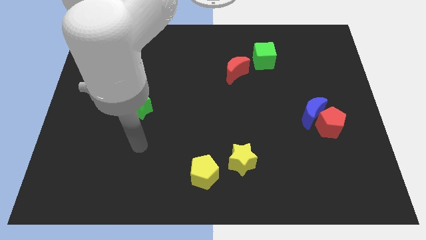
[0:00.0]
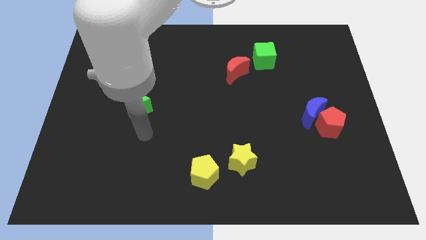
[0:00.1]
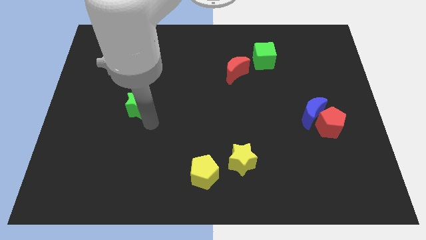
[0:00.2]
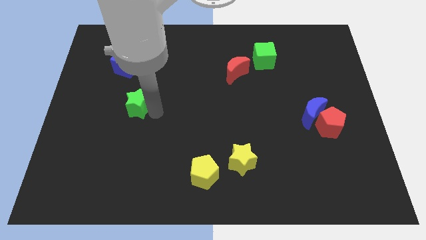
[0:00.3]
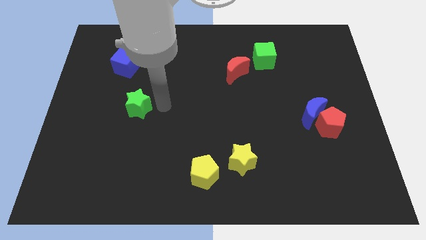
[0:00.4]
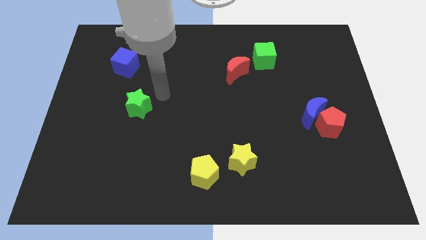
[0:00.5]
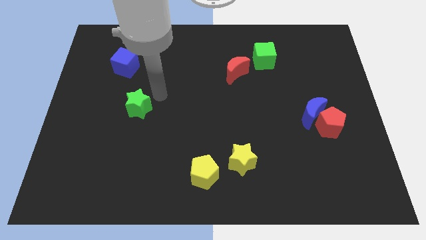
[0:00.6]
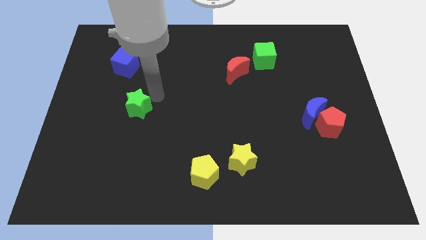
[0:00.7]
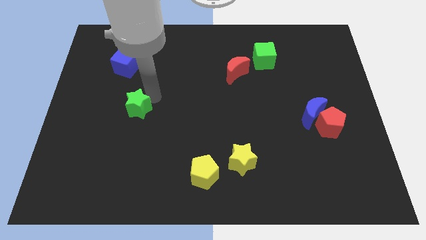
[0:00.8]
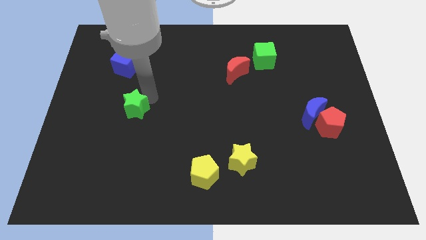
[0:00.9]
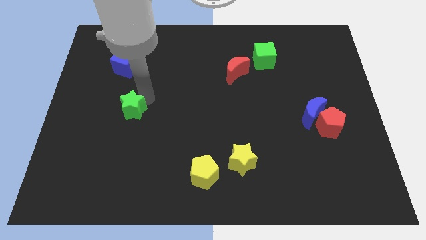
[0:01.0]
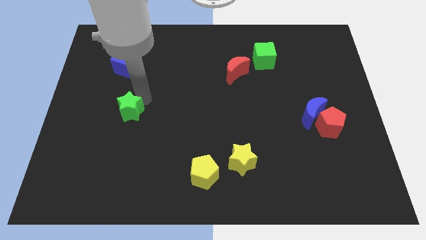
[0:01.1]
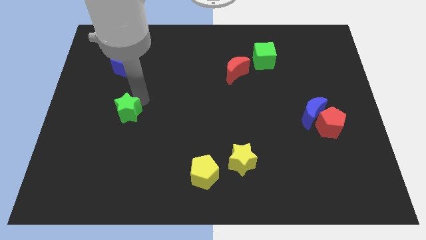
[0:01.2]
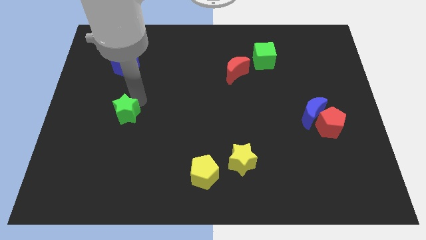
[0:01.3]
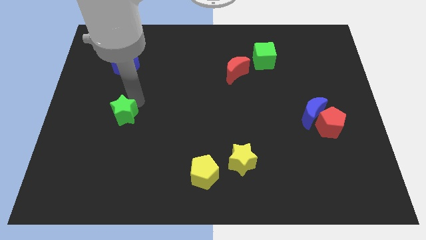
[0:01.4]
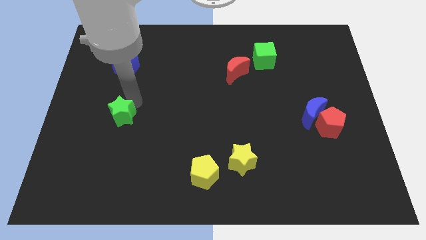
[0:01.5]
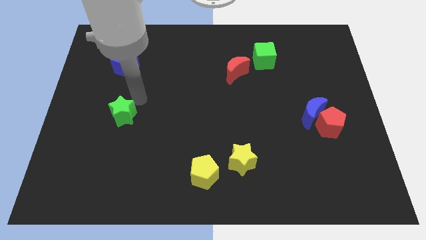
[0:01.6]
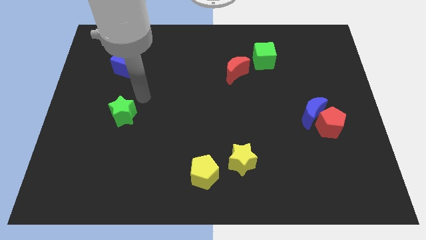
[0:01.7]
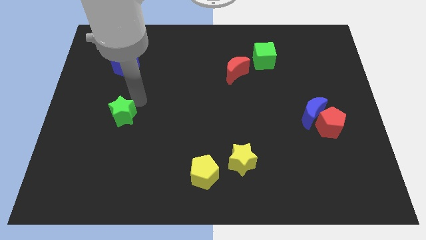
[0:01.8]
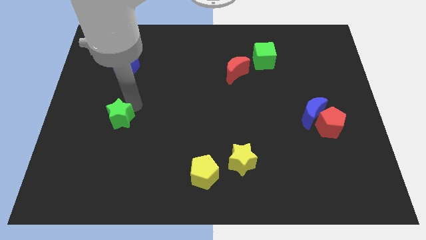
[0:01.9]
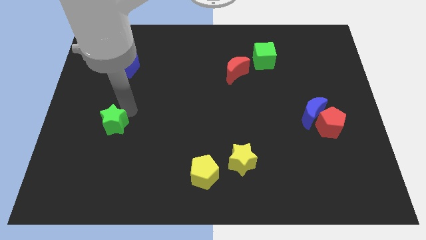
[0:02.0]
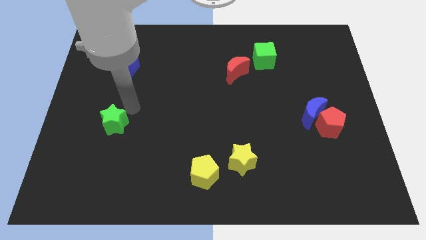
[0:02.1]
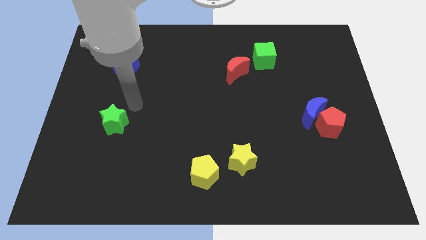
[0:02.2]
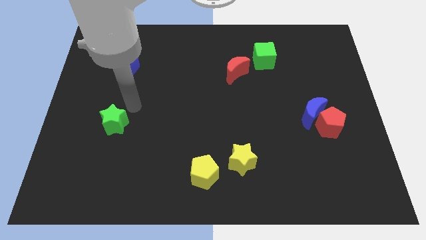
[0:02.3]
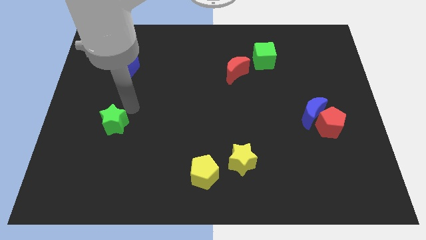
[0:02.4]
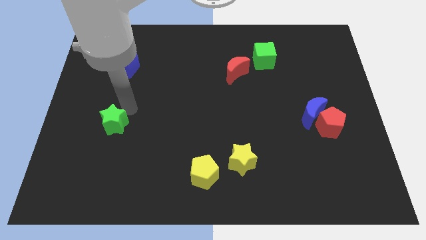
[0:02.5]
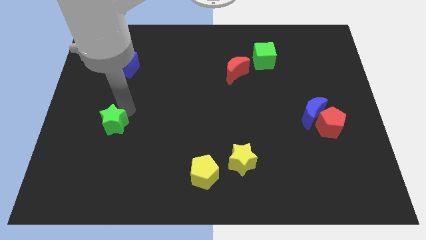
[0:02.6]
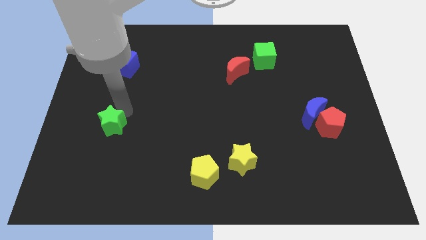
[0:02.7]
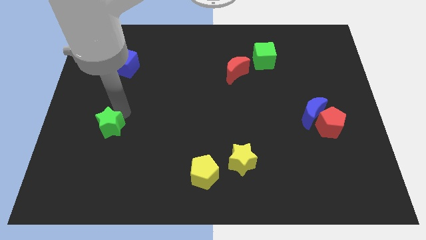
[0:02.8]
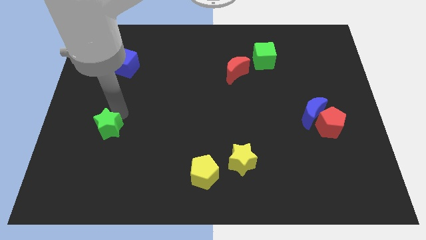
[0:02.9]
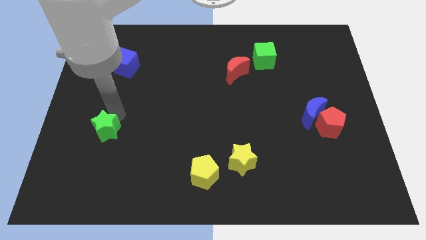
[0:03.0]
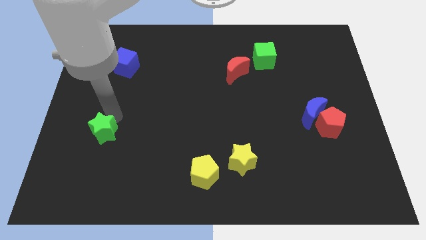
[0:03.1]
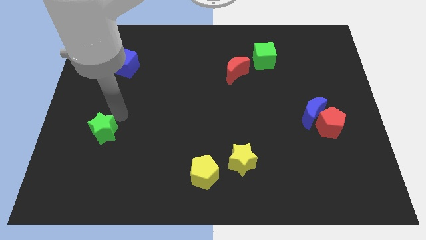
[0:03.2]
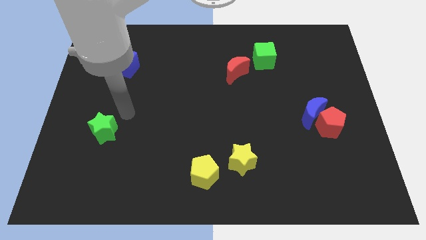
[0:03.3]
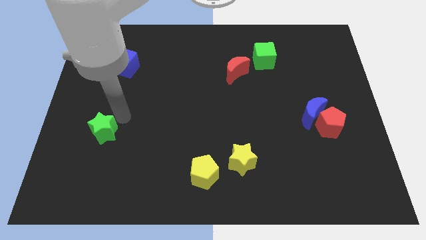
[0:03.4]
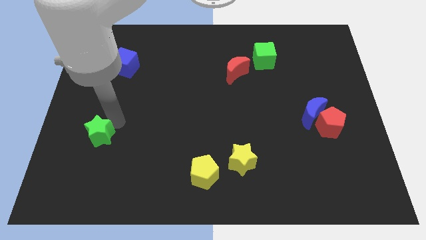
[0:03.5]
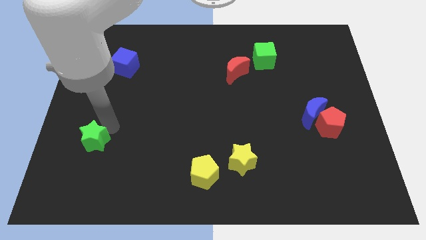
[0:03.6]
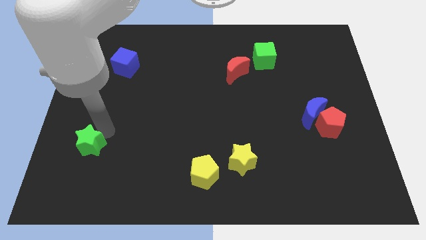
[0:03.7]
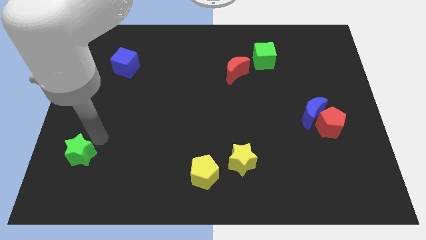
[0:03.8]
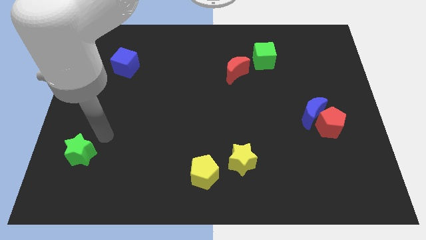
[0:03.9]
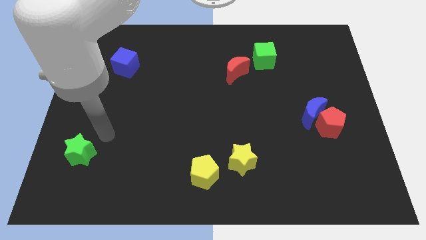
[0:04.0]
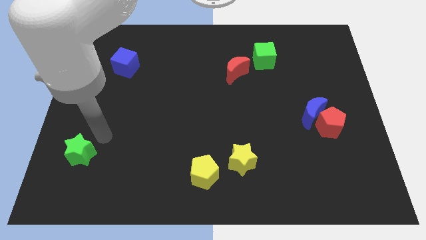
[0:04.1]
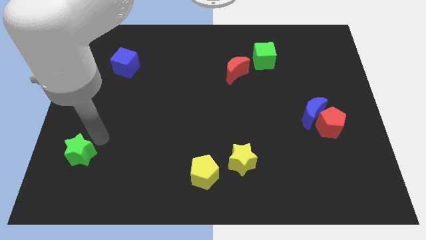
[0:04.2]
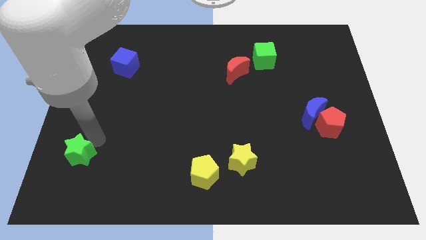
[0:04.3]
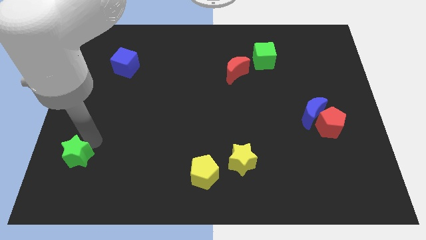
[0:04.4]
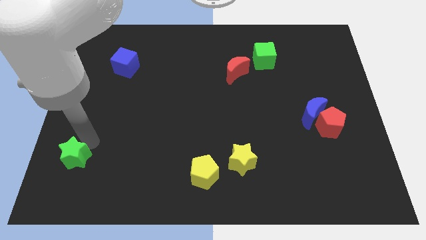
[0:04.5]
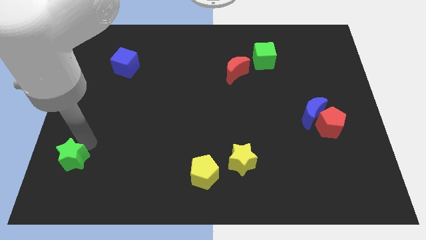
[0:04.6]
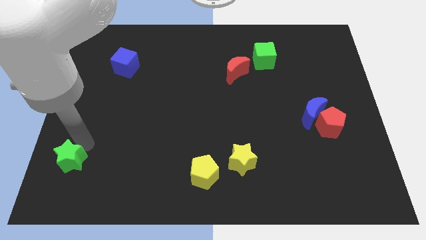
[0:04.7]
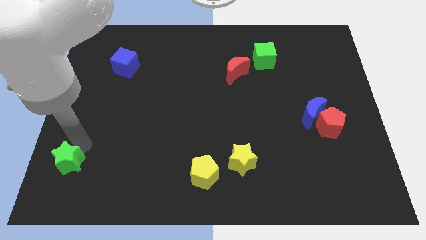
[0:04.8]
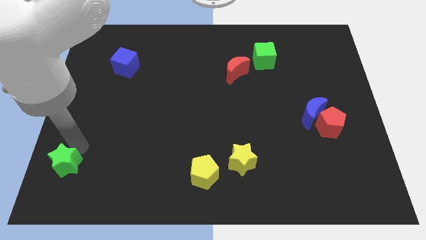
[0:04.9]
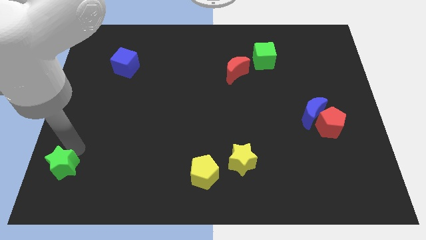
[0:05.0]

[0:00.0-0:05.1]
move the green star to the bottom left corner

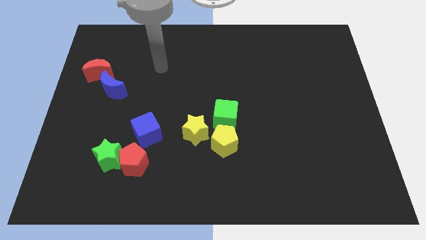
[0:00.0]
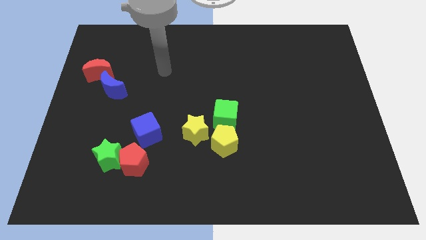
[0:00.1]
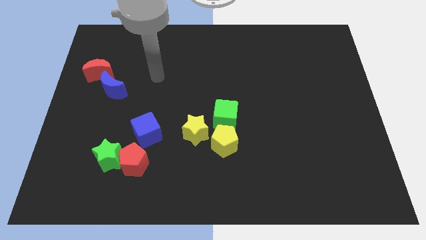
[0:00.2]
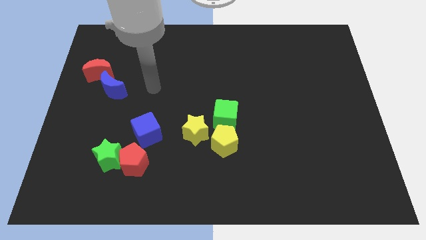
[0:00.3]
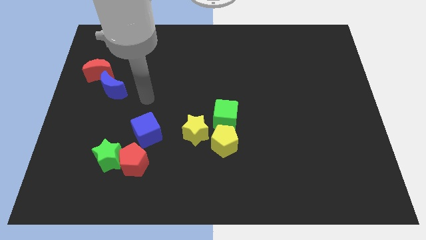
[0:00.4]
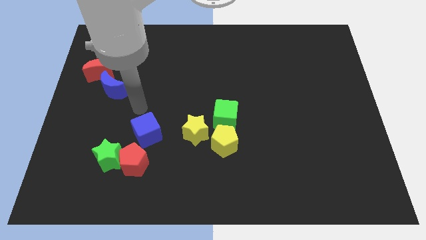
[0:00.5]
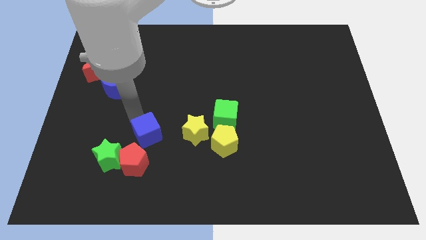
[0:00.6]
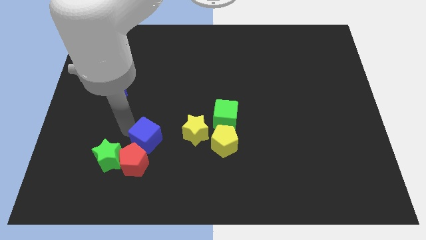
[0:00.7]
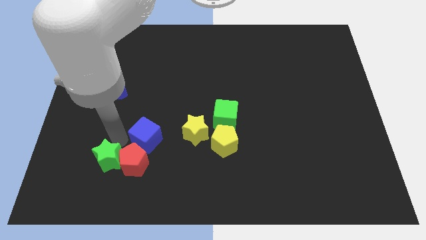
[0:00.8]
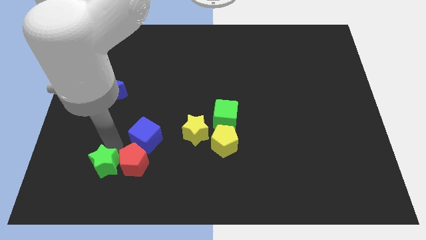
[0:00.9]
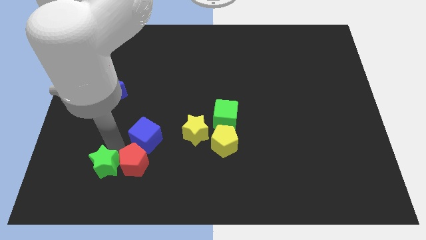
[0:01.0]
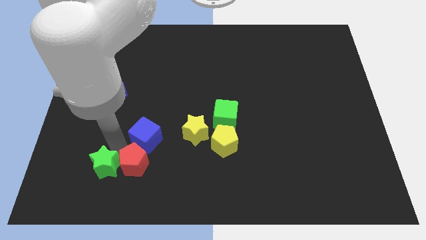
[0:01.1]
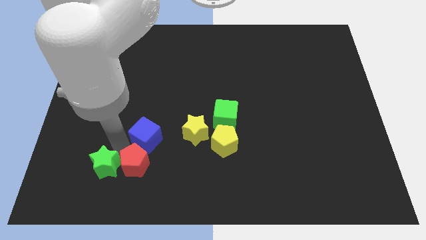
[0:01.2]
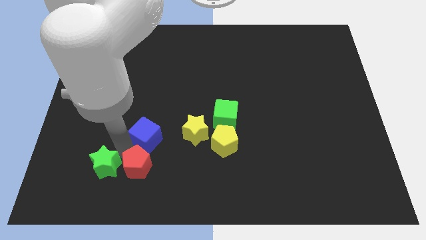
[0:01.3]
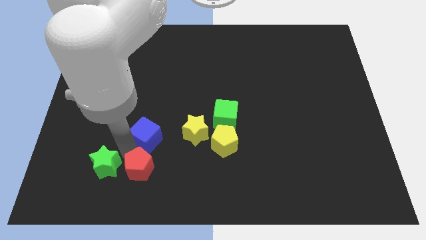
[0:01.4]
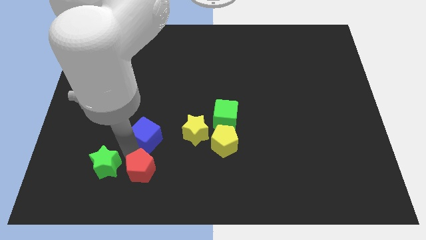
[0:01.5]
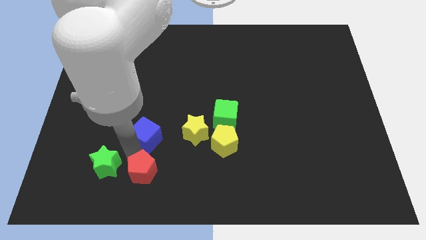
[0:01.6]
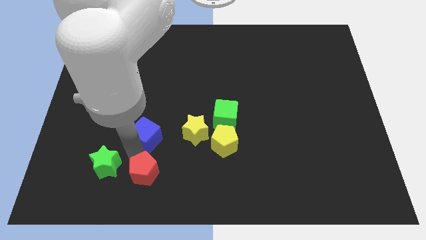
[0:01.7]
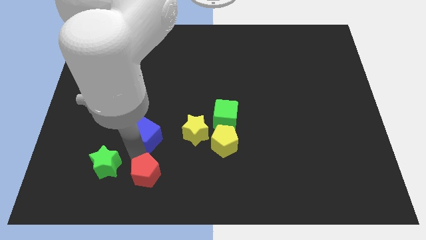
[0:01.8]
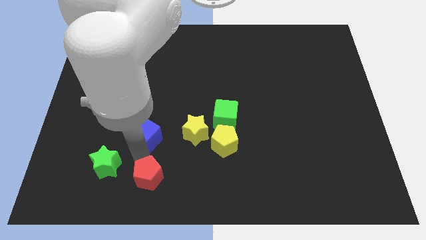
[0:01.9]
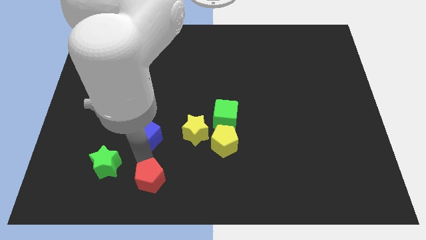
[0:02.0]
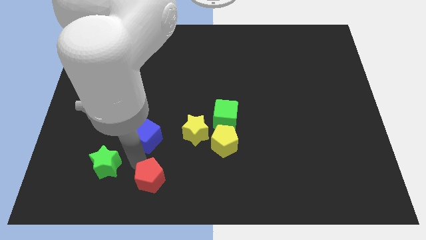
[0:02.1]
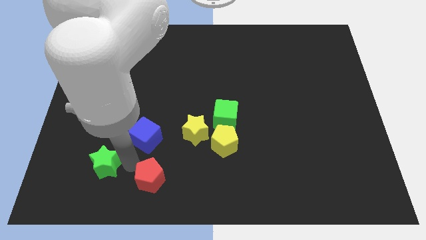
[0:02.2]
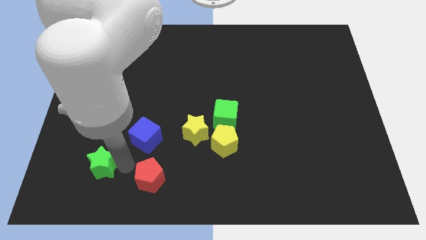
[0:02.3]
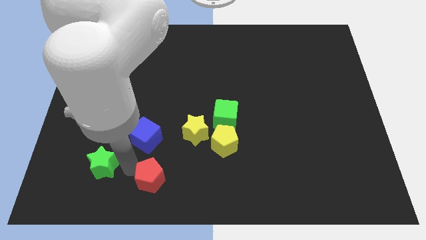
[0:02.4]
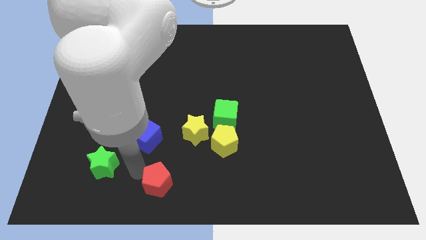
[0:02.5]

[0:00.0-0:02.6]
push the red pentagon to the bottom side
